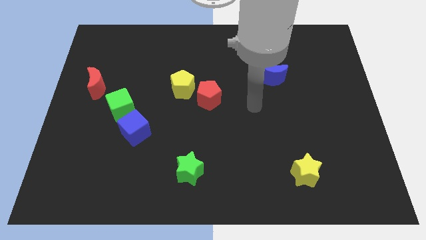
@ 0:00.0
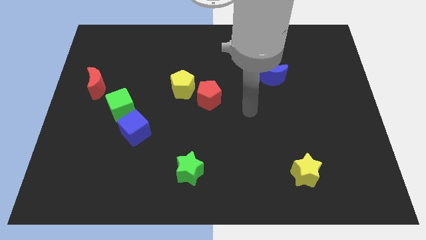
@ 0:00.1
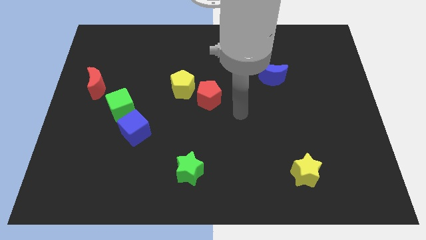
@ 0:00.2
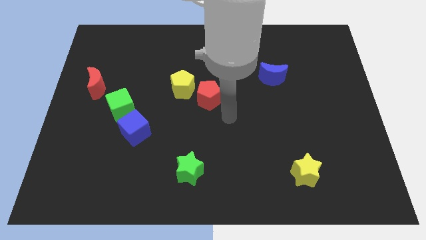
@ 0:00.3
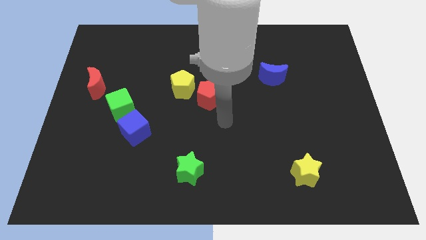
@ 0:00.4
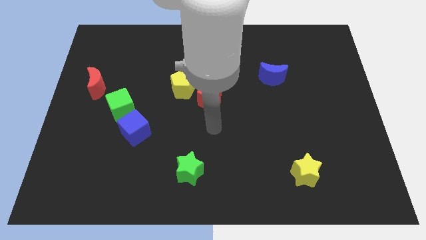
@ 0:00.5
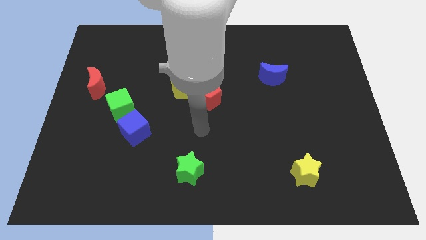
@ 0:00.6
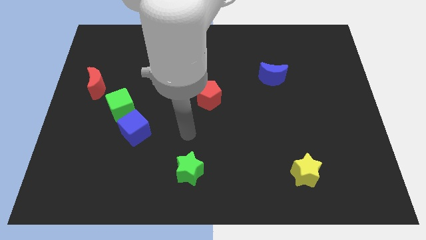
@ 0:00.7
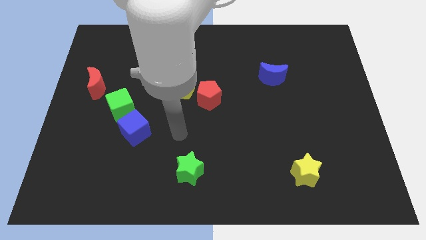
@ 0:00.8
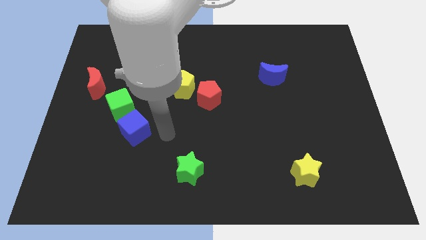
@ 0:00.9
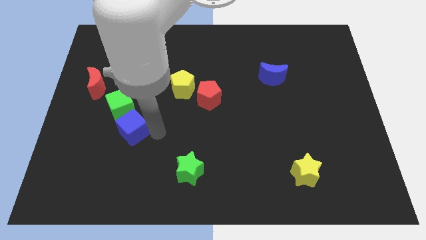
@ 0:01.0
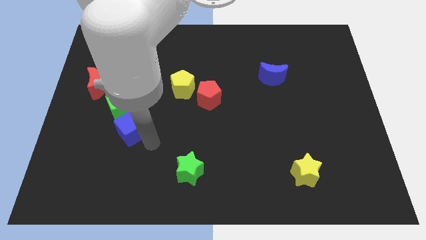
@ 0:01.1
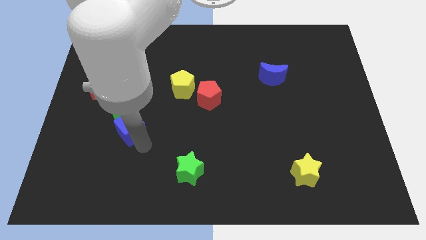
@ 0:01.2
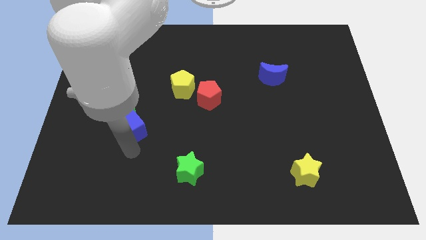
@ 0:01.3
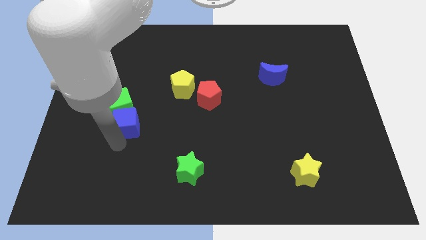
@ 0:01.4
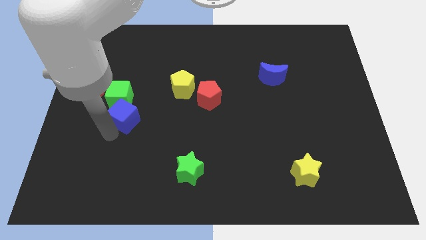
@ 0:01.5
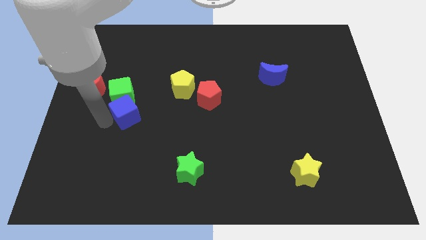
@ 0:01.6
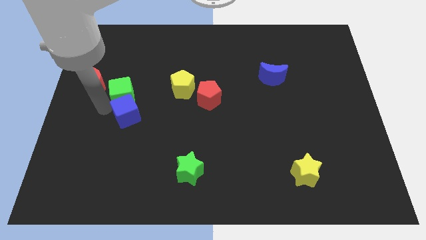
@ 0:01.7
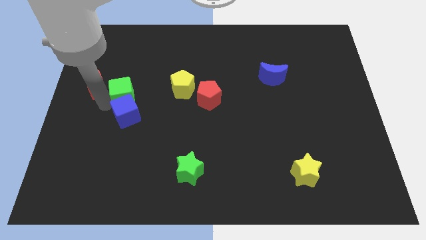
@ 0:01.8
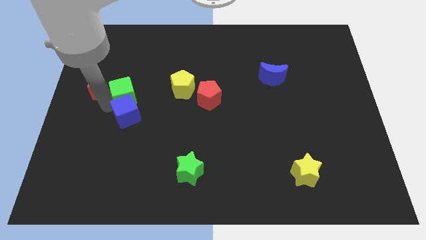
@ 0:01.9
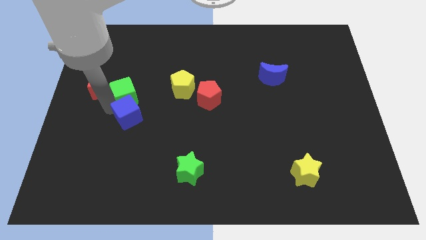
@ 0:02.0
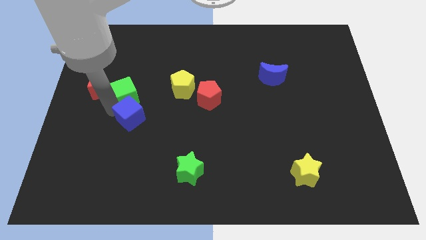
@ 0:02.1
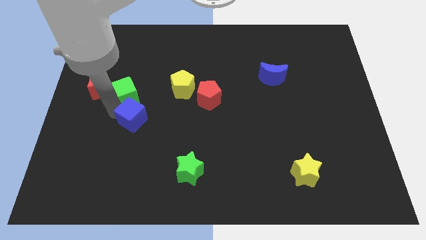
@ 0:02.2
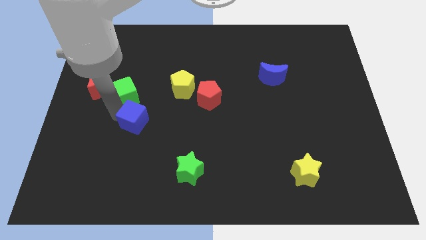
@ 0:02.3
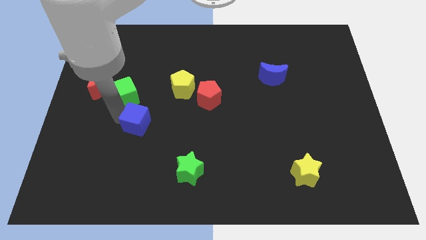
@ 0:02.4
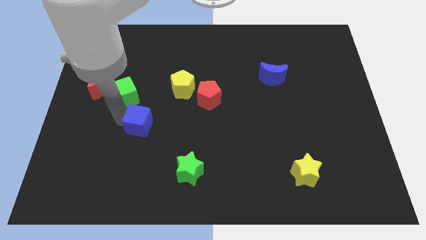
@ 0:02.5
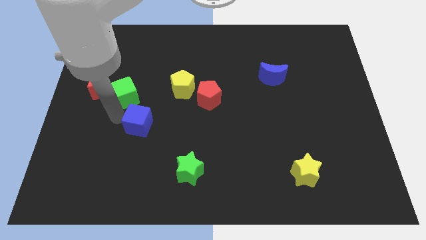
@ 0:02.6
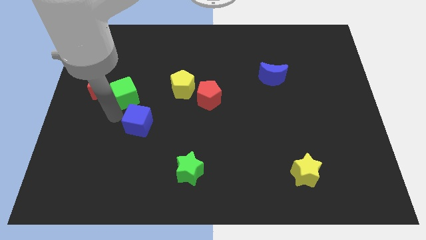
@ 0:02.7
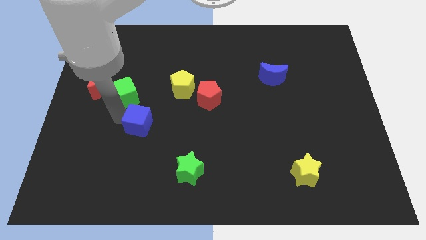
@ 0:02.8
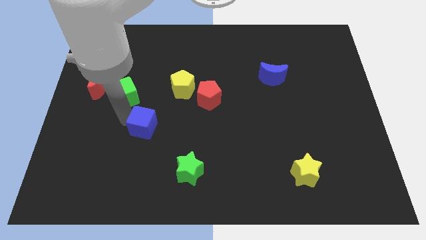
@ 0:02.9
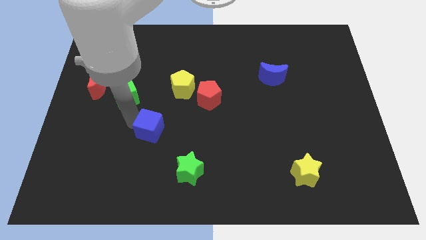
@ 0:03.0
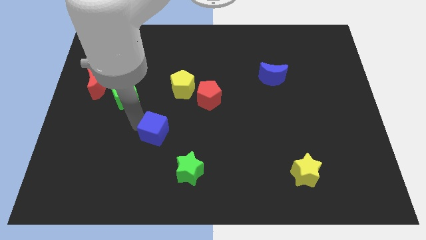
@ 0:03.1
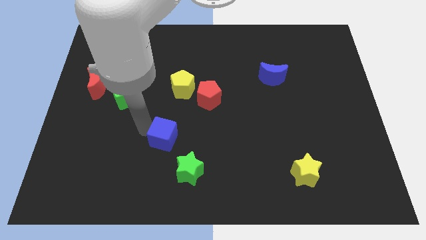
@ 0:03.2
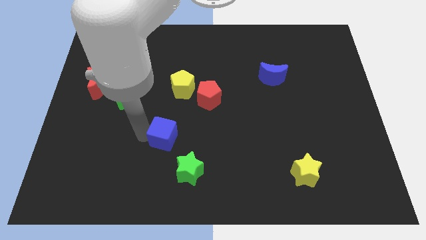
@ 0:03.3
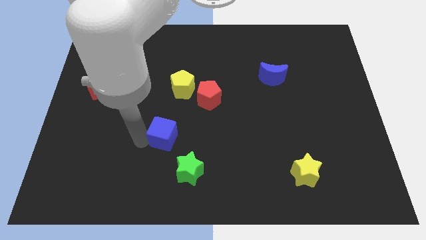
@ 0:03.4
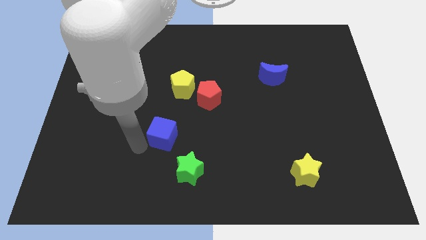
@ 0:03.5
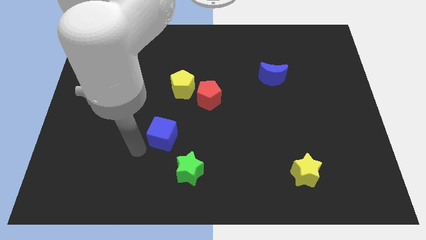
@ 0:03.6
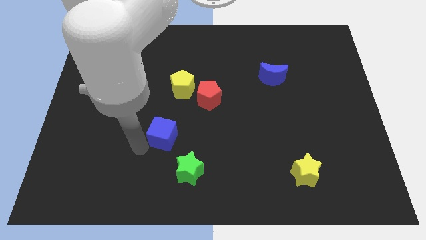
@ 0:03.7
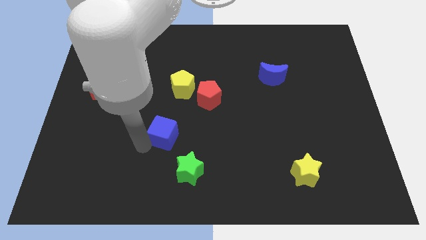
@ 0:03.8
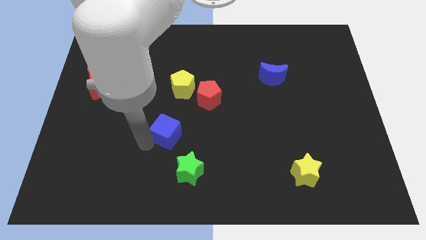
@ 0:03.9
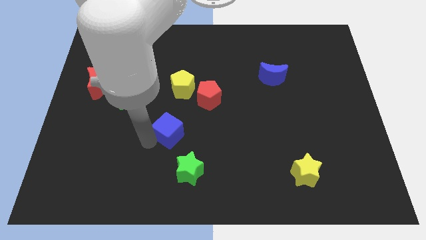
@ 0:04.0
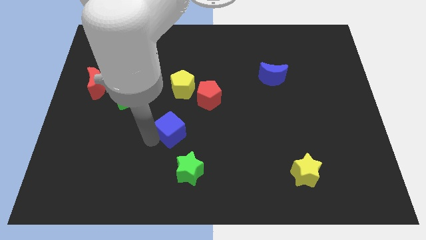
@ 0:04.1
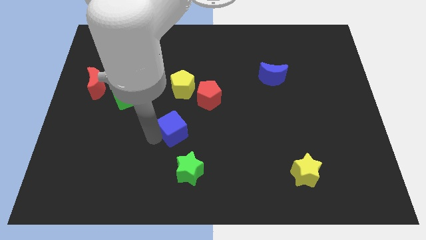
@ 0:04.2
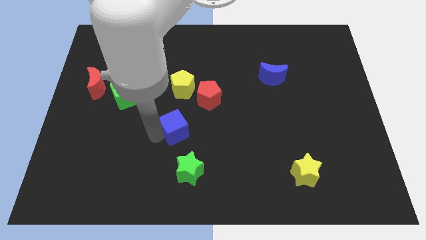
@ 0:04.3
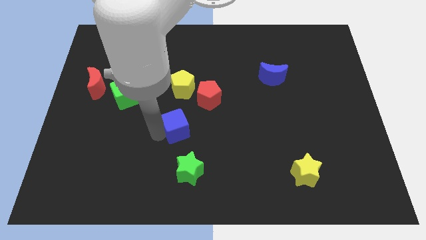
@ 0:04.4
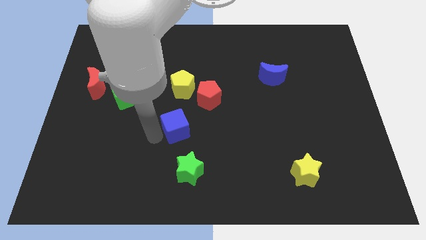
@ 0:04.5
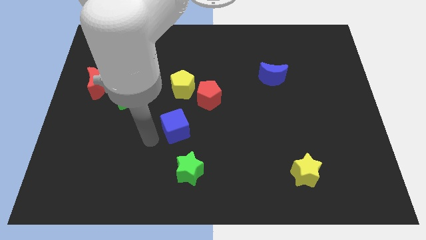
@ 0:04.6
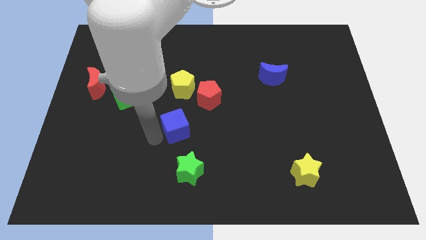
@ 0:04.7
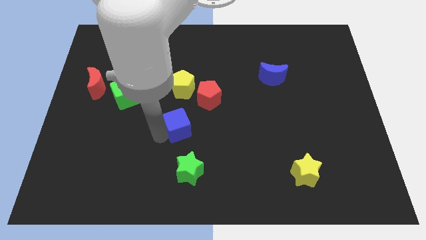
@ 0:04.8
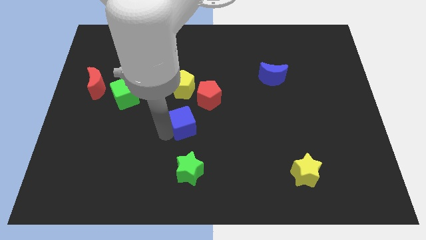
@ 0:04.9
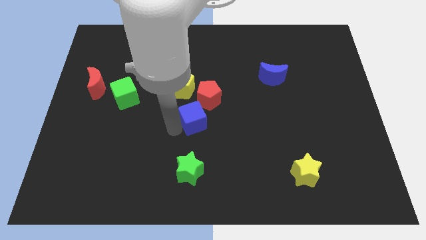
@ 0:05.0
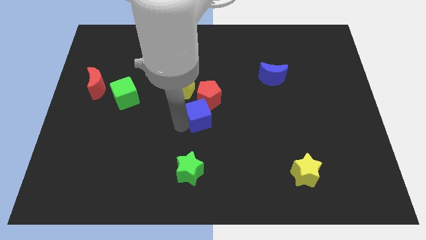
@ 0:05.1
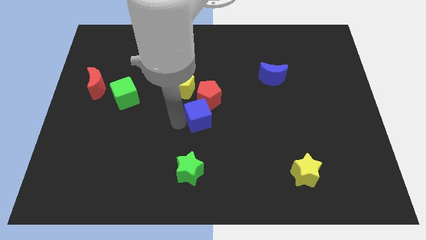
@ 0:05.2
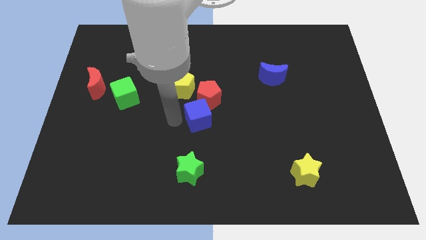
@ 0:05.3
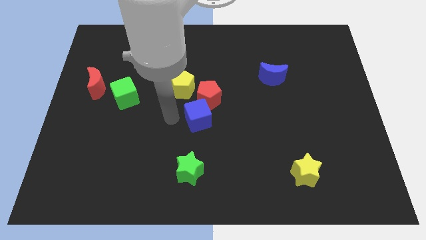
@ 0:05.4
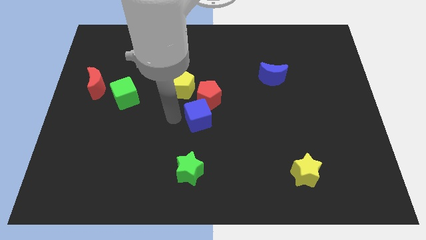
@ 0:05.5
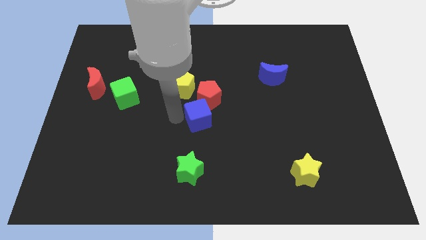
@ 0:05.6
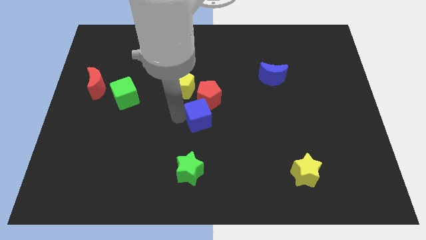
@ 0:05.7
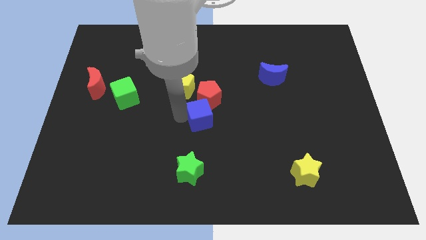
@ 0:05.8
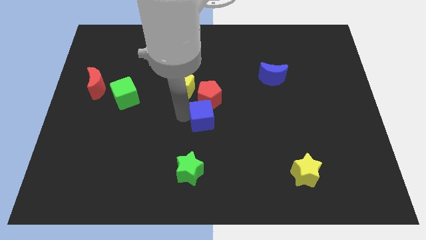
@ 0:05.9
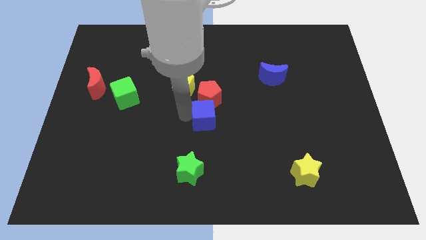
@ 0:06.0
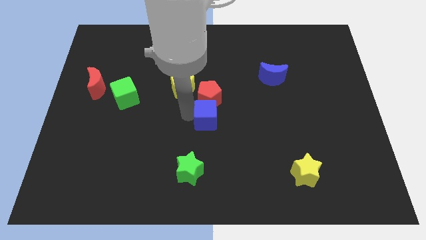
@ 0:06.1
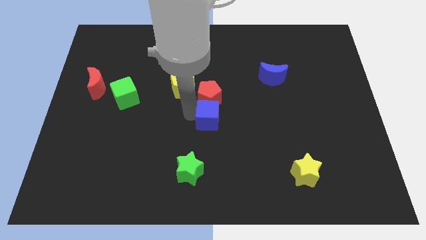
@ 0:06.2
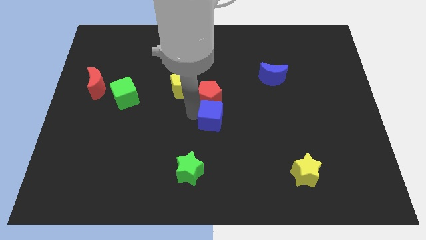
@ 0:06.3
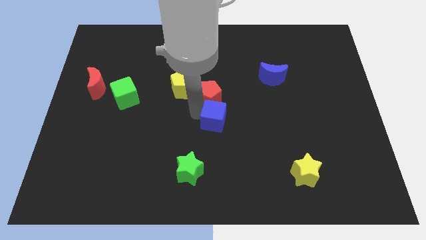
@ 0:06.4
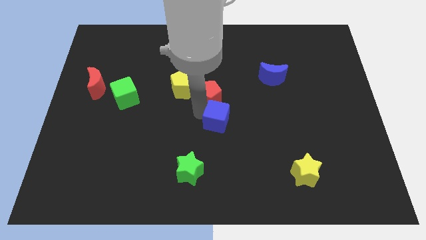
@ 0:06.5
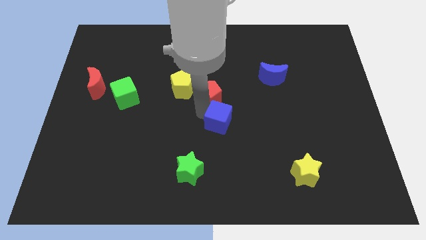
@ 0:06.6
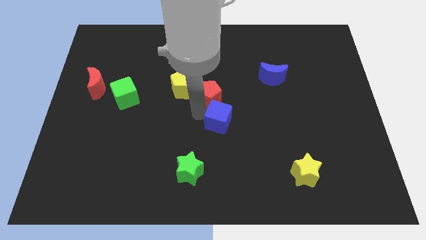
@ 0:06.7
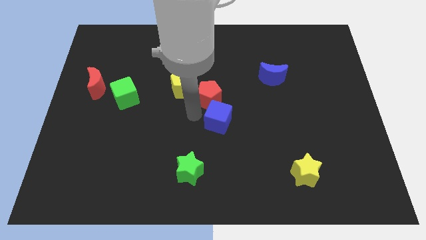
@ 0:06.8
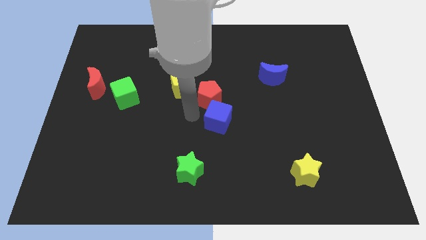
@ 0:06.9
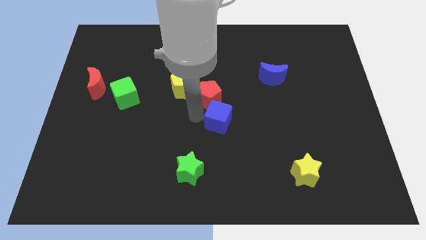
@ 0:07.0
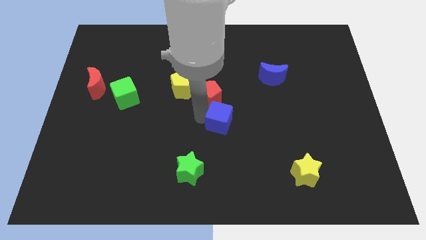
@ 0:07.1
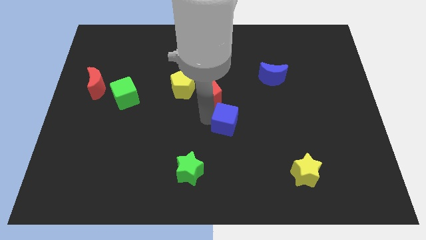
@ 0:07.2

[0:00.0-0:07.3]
slide the blue cube right

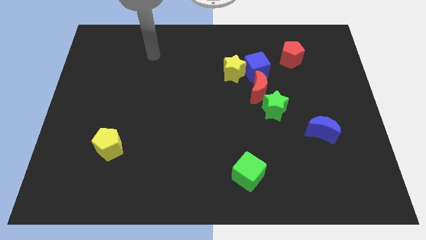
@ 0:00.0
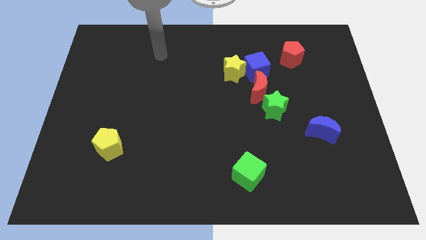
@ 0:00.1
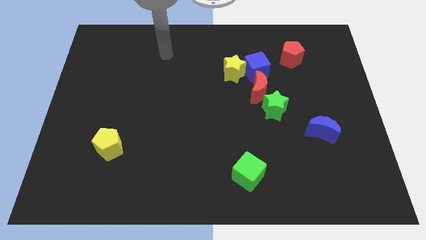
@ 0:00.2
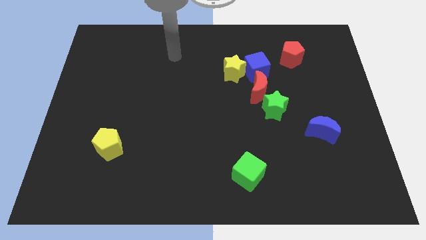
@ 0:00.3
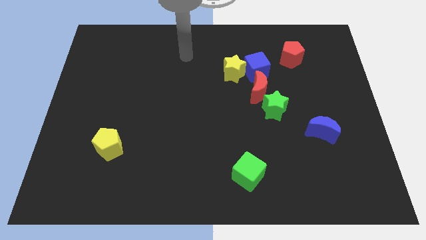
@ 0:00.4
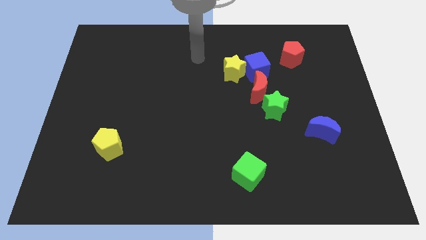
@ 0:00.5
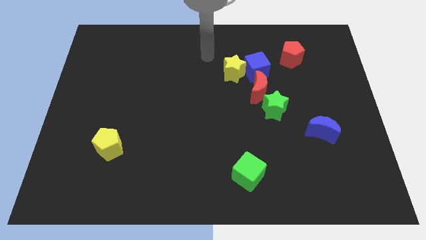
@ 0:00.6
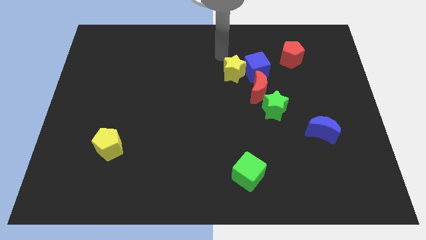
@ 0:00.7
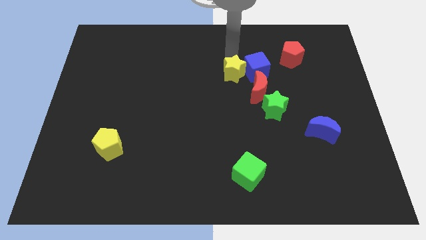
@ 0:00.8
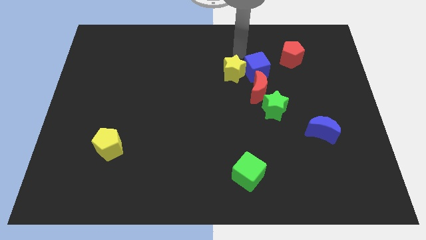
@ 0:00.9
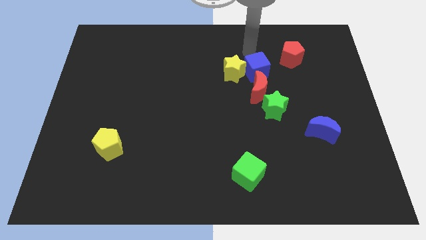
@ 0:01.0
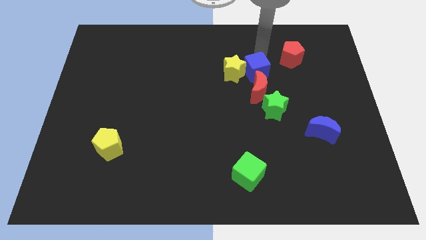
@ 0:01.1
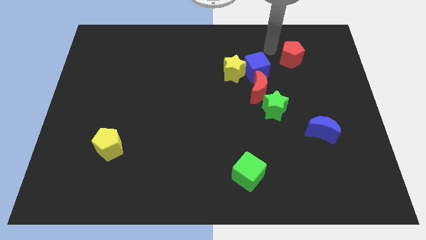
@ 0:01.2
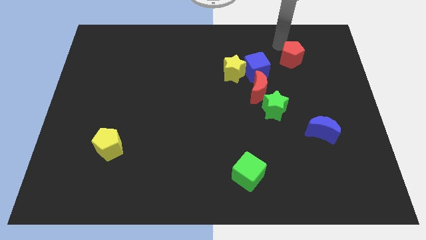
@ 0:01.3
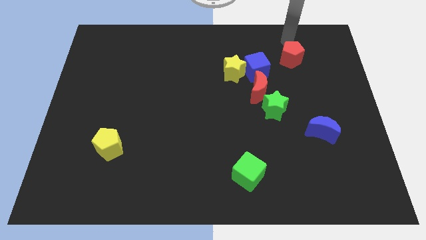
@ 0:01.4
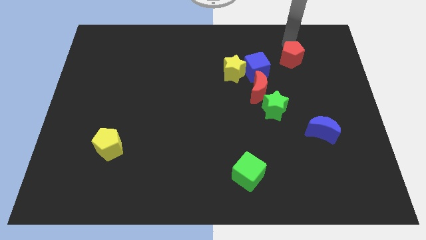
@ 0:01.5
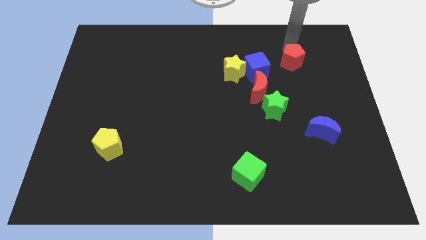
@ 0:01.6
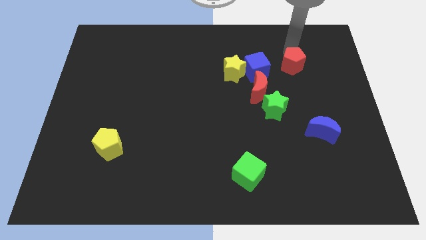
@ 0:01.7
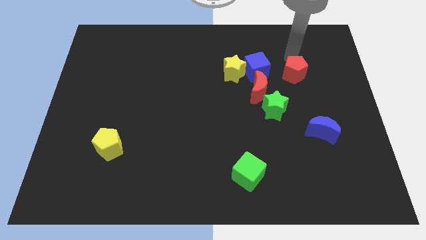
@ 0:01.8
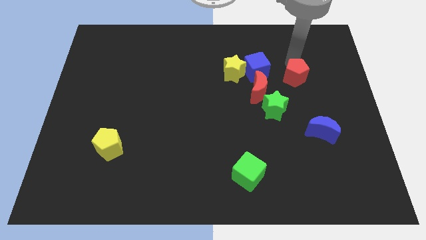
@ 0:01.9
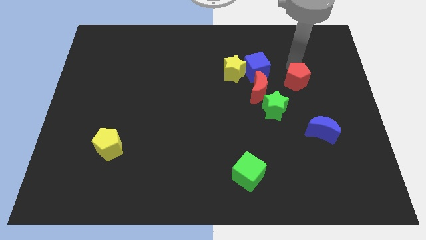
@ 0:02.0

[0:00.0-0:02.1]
slide the red pentagon down somewhat
